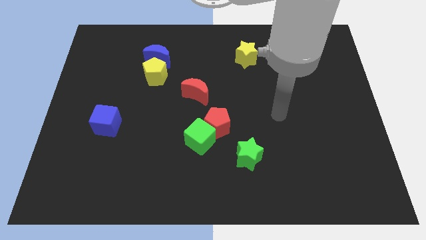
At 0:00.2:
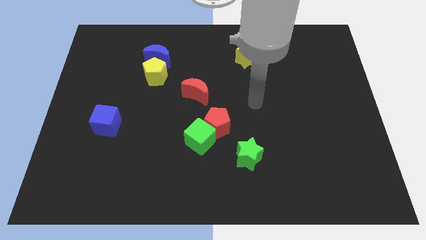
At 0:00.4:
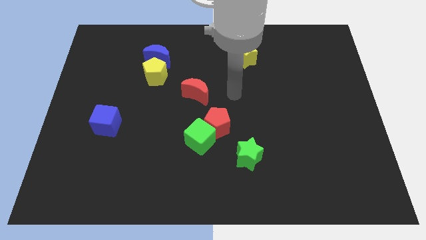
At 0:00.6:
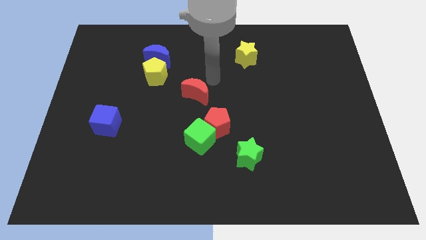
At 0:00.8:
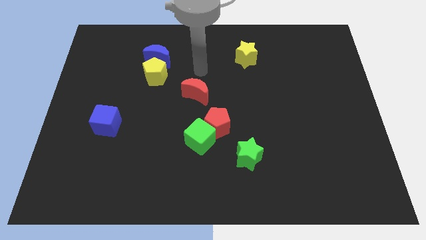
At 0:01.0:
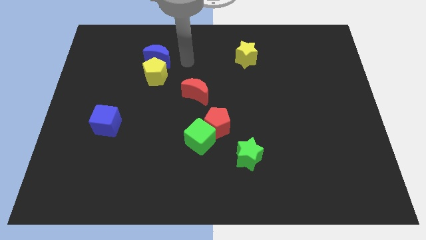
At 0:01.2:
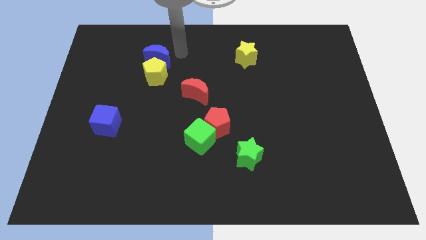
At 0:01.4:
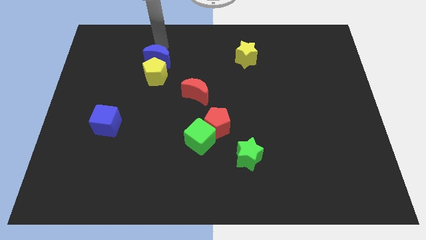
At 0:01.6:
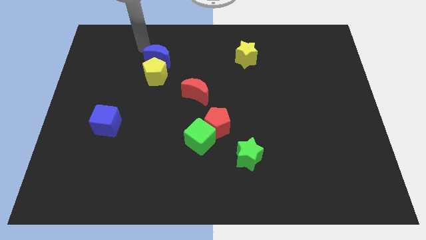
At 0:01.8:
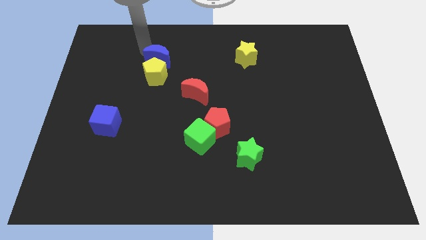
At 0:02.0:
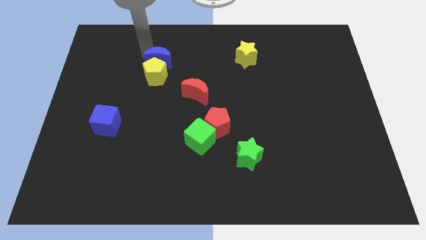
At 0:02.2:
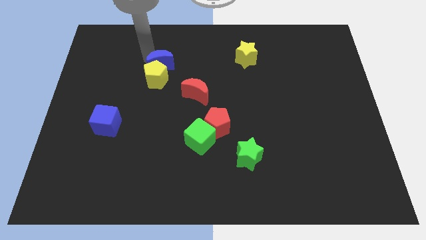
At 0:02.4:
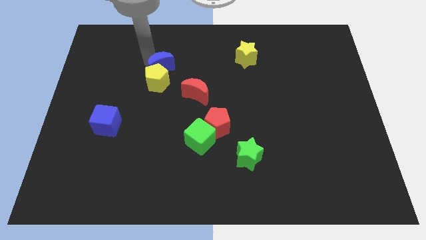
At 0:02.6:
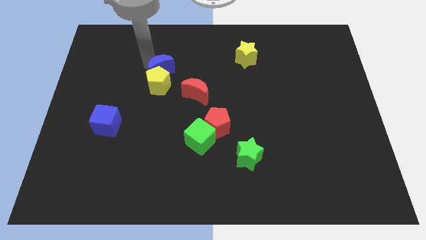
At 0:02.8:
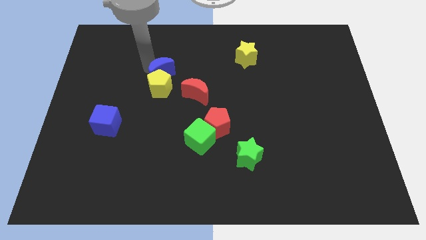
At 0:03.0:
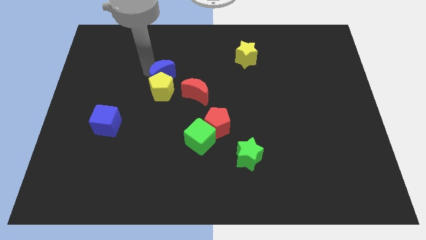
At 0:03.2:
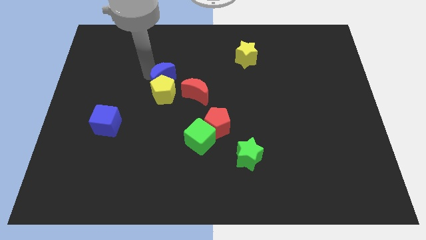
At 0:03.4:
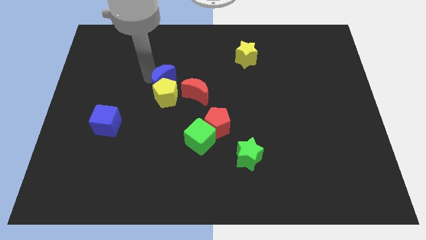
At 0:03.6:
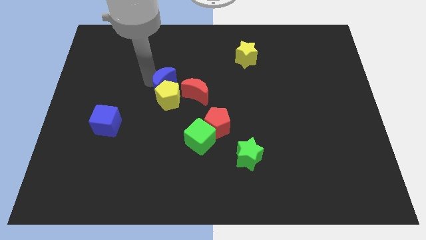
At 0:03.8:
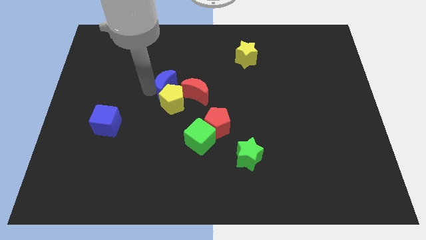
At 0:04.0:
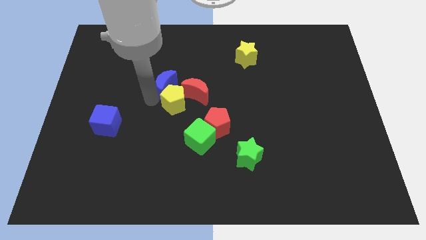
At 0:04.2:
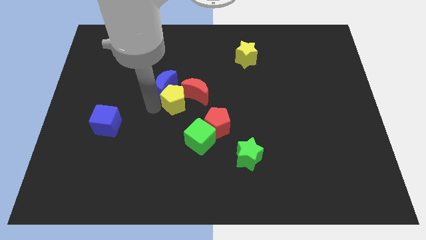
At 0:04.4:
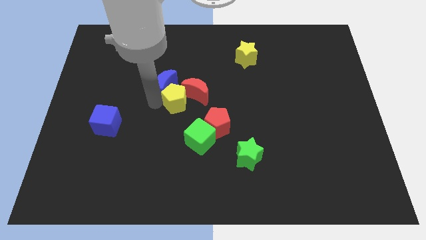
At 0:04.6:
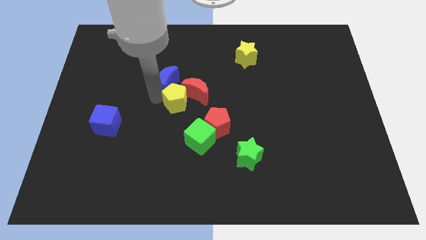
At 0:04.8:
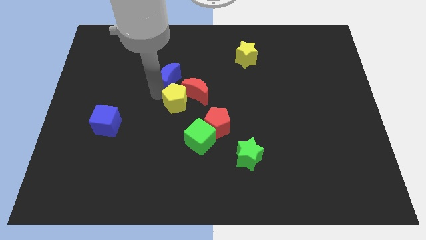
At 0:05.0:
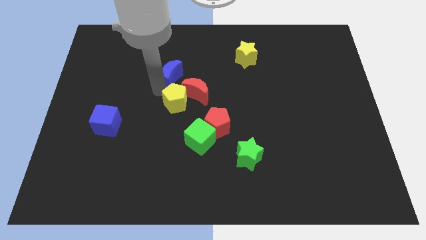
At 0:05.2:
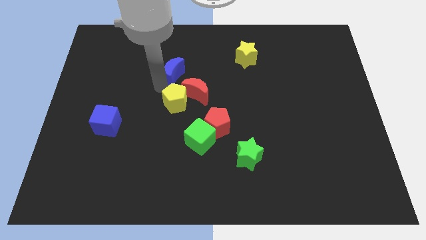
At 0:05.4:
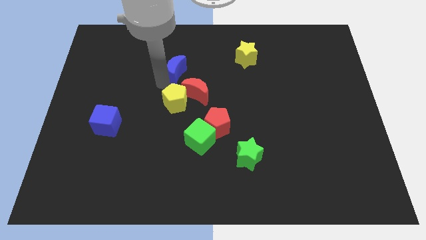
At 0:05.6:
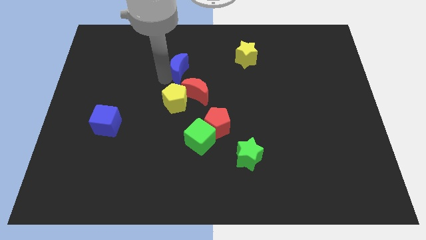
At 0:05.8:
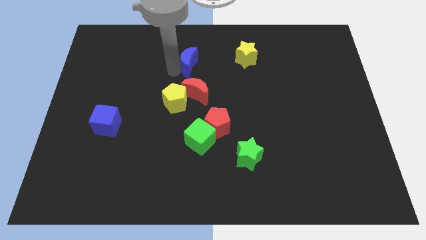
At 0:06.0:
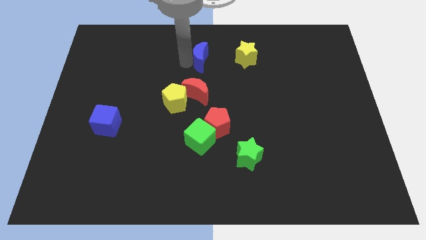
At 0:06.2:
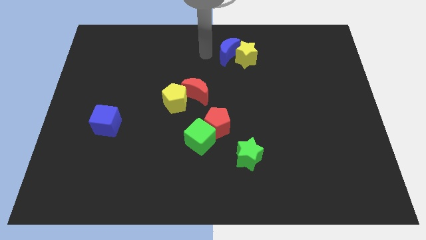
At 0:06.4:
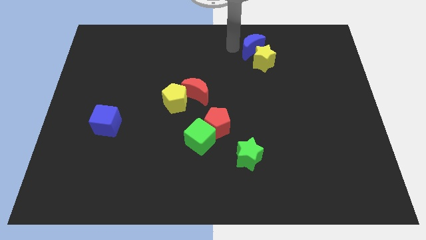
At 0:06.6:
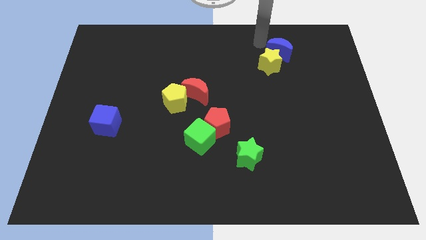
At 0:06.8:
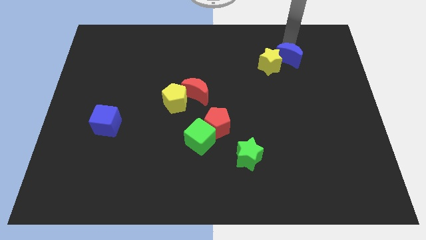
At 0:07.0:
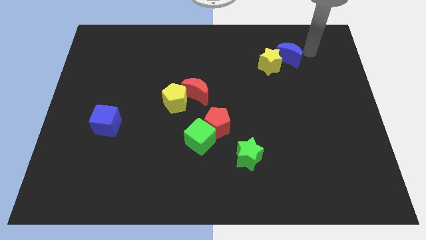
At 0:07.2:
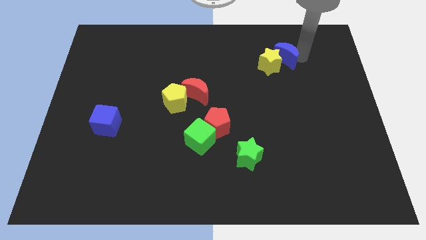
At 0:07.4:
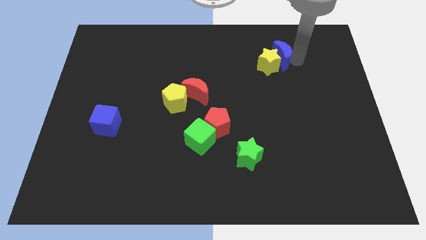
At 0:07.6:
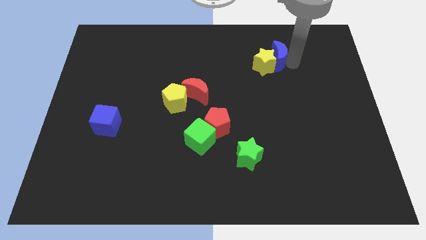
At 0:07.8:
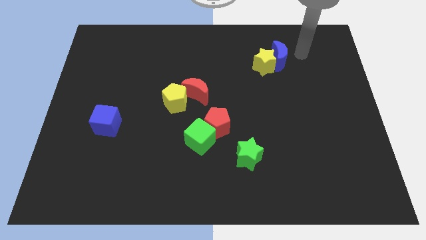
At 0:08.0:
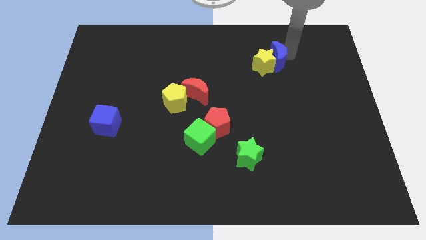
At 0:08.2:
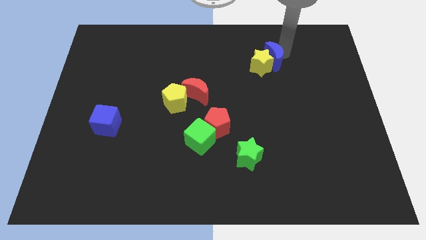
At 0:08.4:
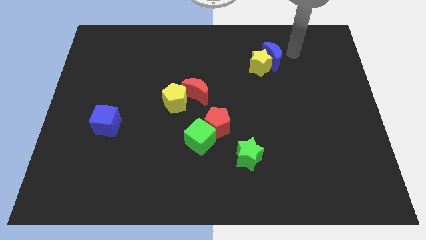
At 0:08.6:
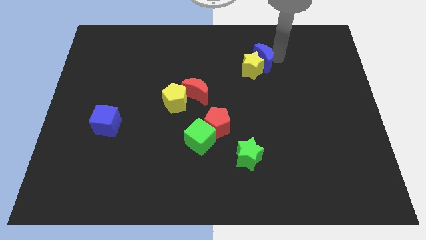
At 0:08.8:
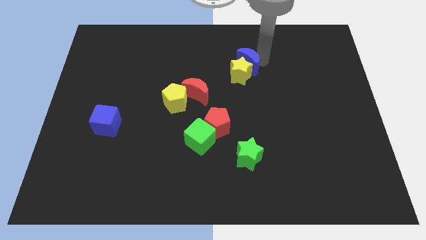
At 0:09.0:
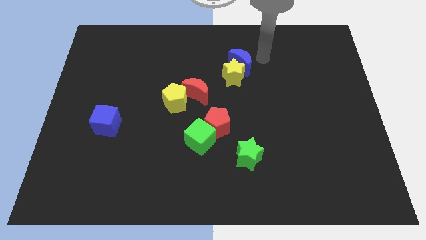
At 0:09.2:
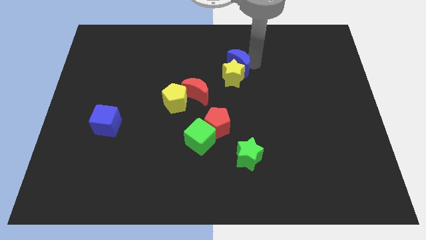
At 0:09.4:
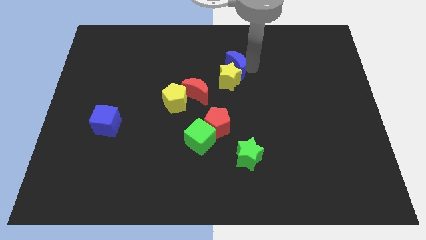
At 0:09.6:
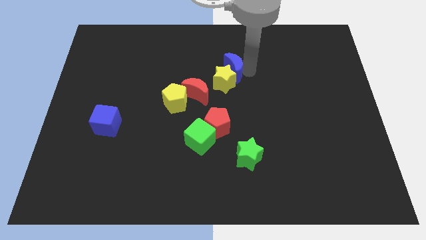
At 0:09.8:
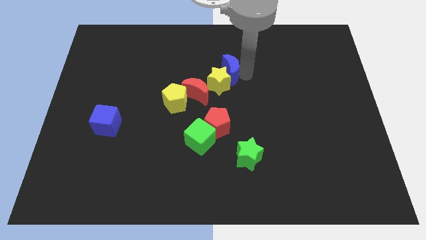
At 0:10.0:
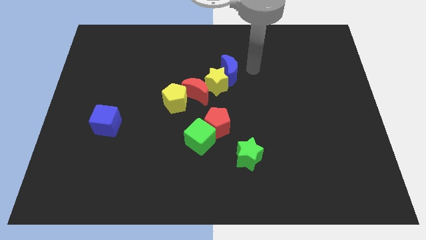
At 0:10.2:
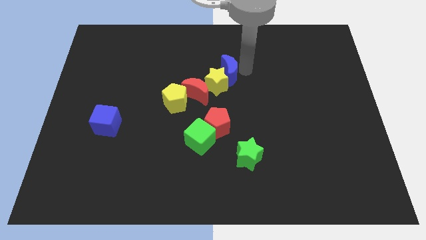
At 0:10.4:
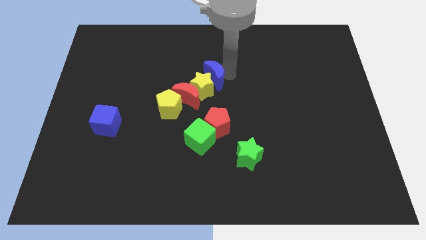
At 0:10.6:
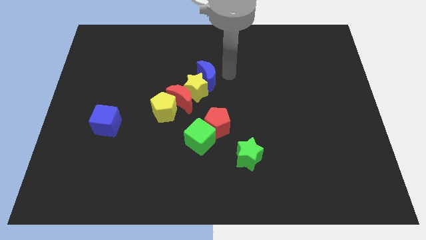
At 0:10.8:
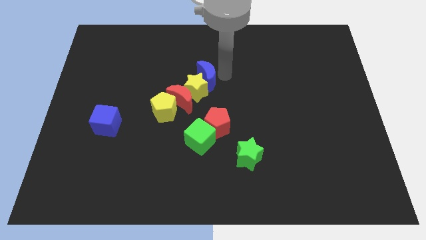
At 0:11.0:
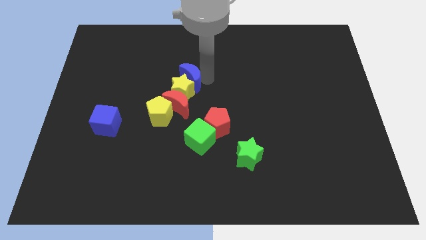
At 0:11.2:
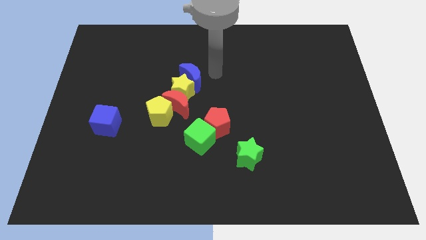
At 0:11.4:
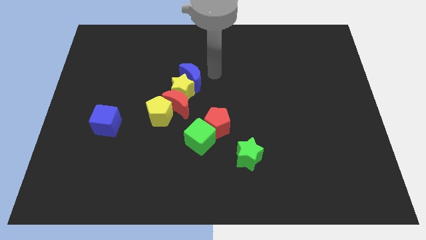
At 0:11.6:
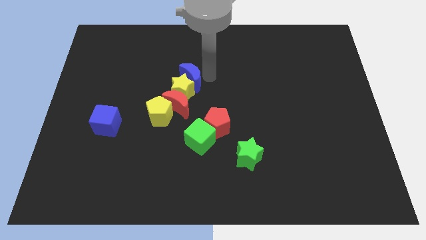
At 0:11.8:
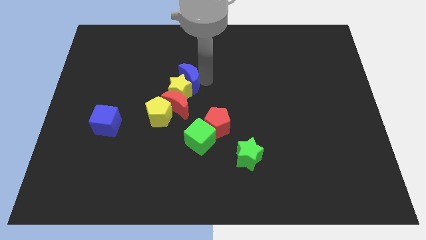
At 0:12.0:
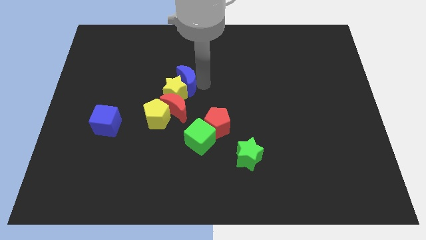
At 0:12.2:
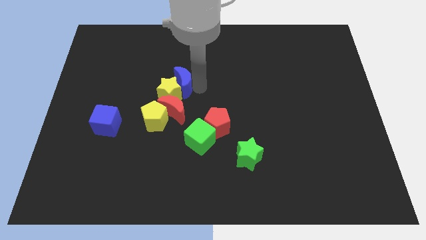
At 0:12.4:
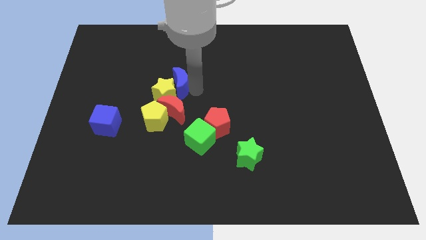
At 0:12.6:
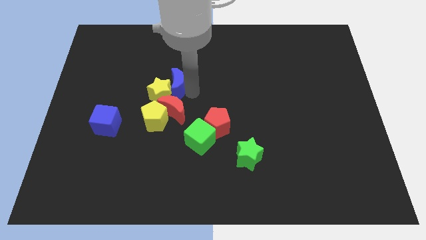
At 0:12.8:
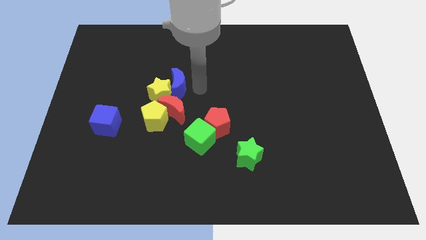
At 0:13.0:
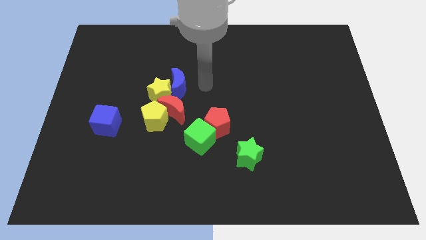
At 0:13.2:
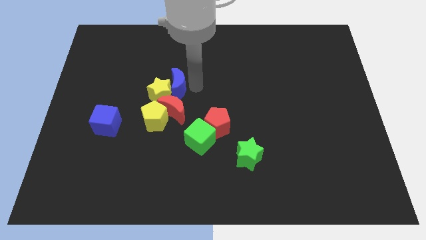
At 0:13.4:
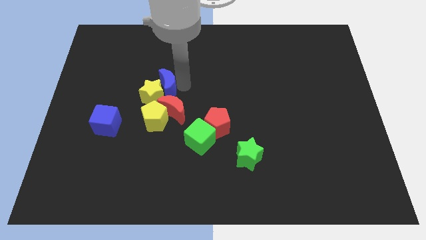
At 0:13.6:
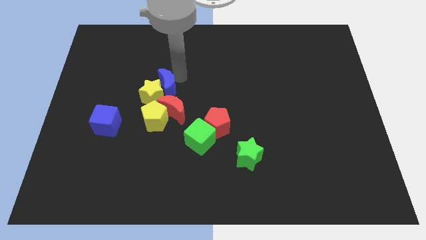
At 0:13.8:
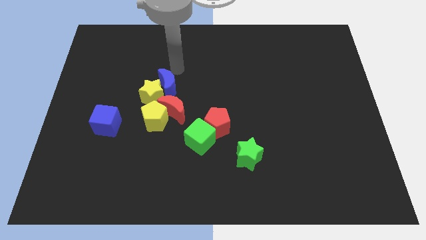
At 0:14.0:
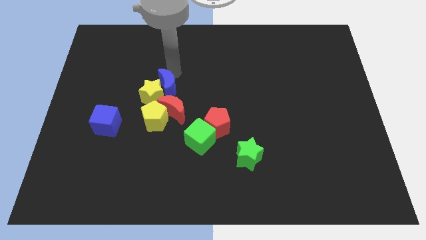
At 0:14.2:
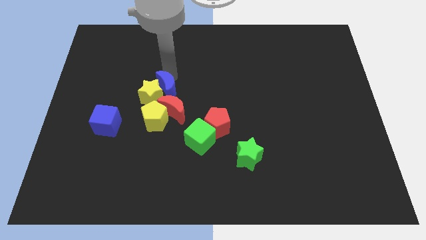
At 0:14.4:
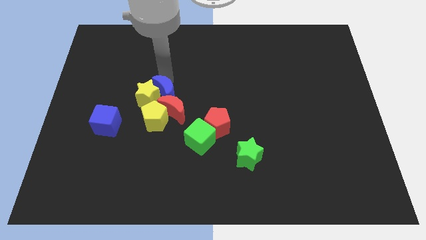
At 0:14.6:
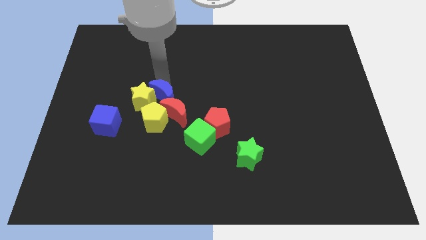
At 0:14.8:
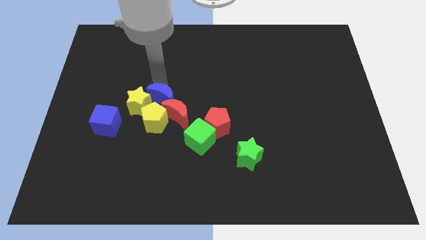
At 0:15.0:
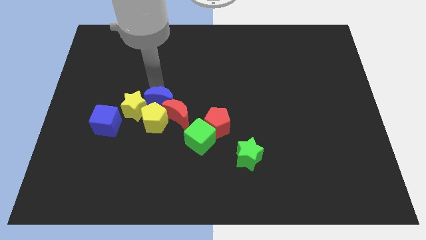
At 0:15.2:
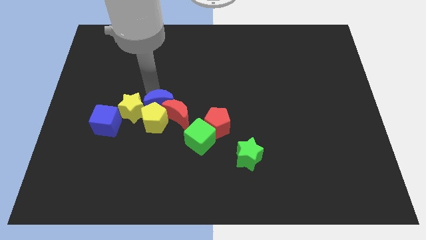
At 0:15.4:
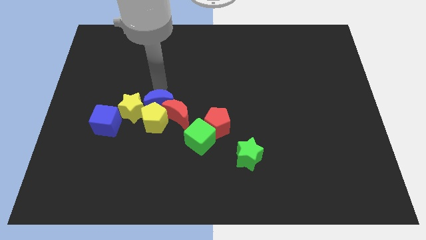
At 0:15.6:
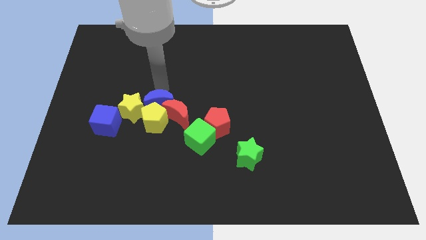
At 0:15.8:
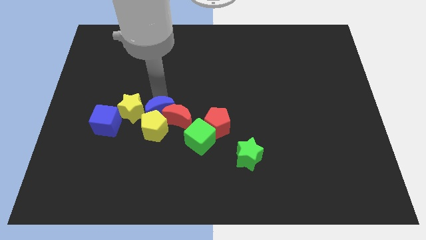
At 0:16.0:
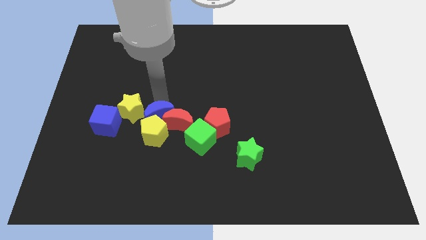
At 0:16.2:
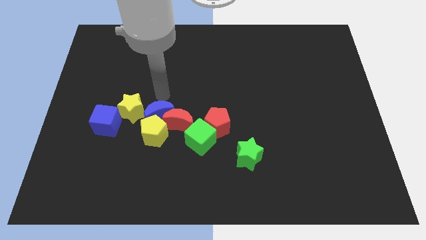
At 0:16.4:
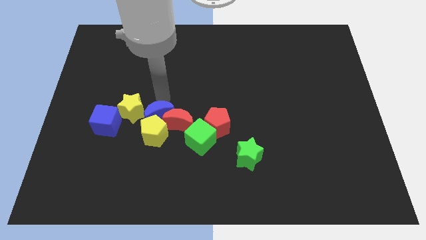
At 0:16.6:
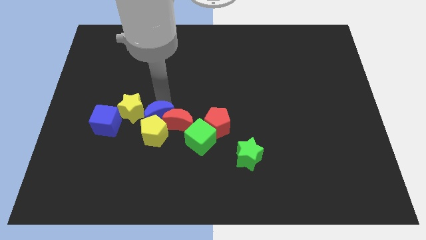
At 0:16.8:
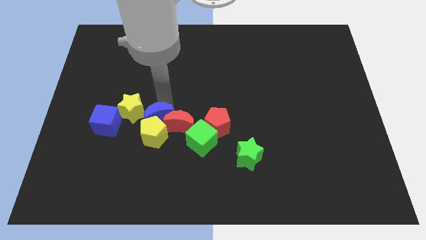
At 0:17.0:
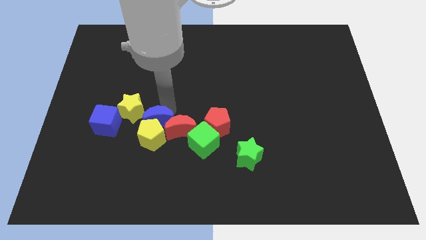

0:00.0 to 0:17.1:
push the blue moon downwards
